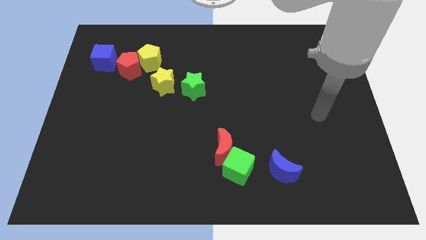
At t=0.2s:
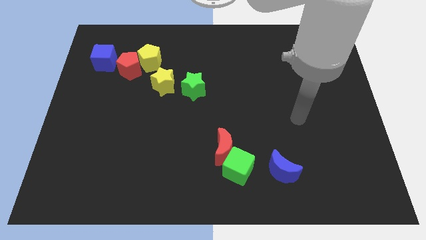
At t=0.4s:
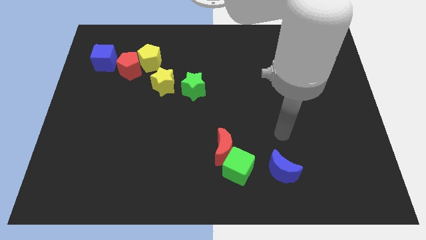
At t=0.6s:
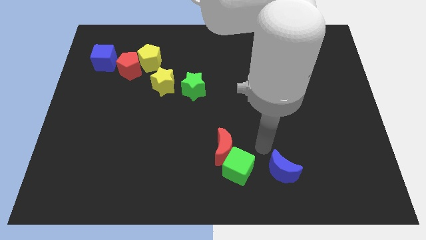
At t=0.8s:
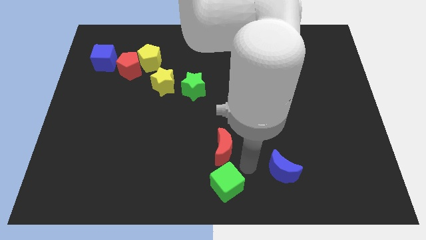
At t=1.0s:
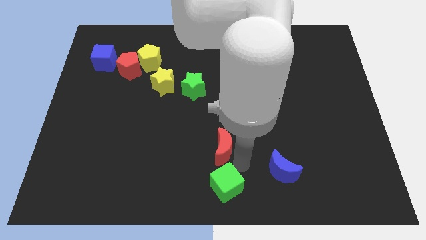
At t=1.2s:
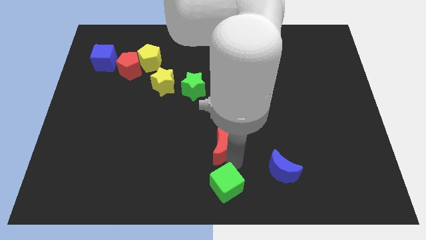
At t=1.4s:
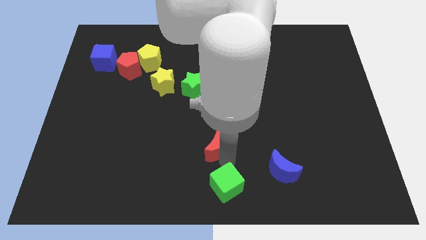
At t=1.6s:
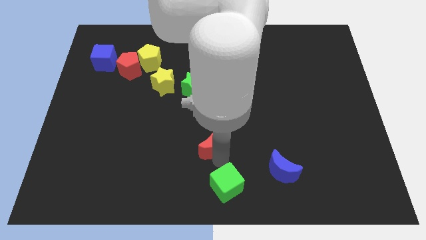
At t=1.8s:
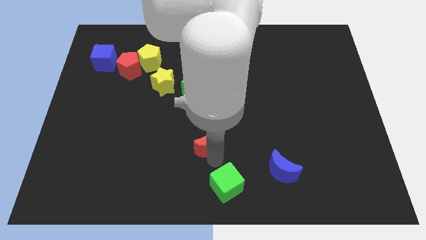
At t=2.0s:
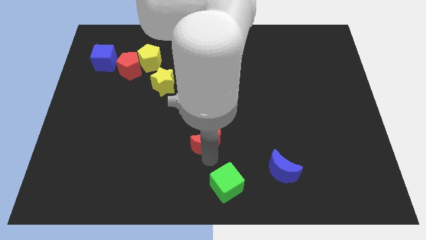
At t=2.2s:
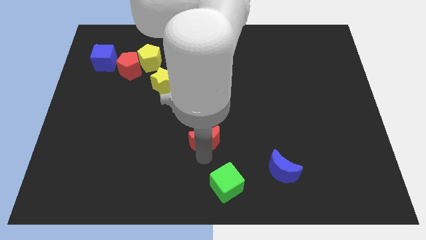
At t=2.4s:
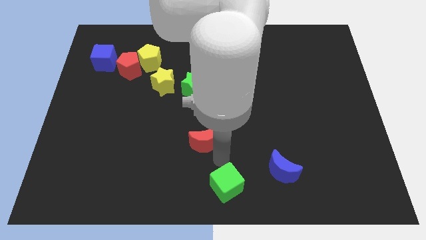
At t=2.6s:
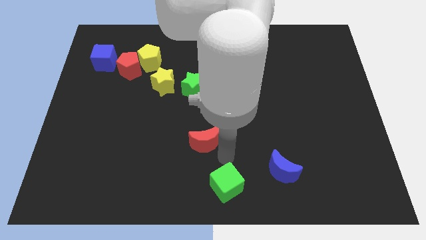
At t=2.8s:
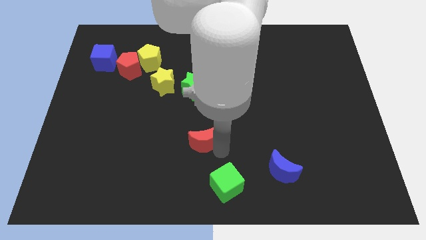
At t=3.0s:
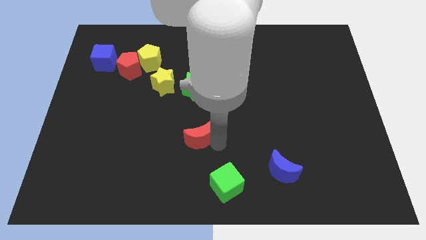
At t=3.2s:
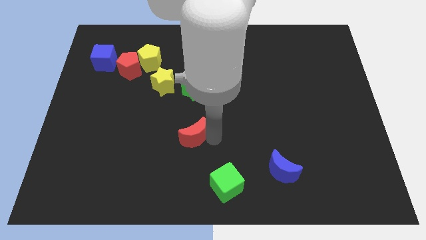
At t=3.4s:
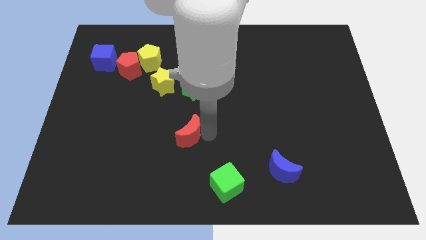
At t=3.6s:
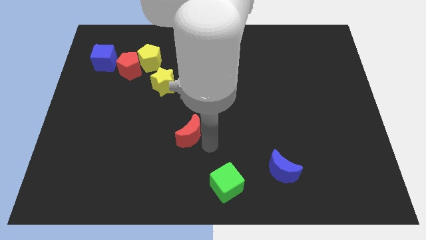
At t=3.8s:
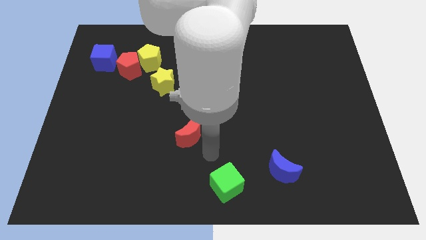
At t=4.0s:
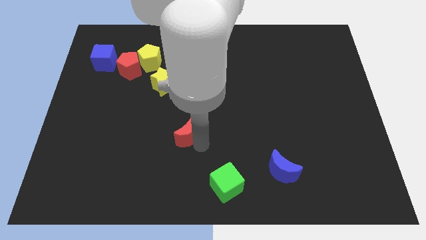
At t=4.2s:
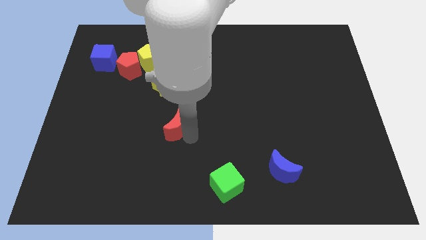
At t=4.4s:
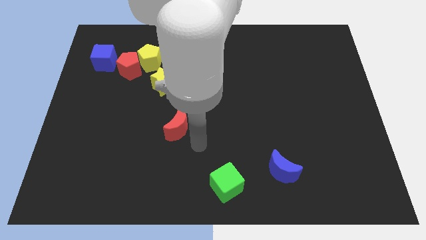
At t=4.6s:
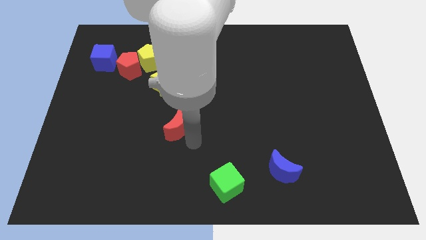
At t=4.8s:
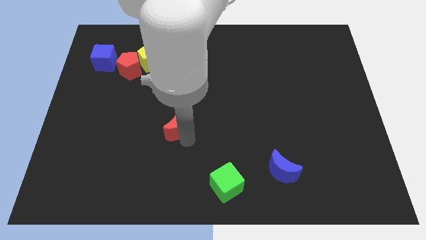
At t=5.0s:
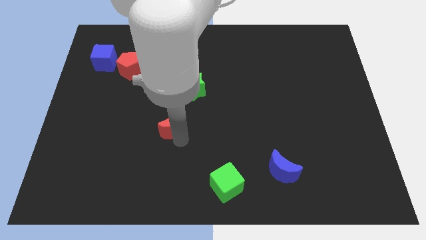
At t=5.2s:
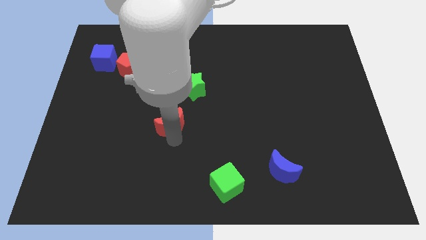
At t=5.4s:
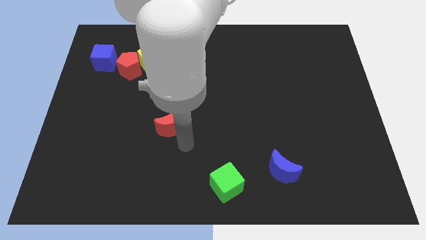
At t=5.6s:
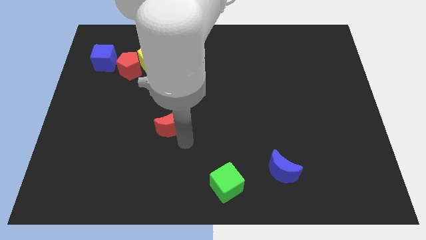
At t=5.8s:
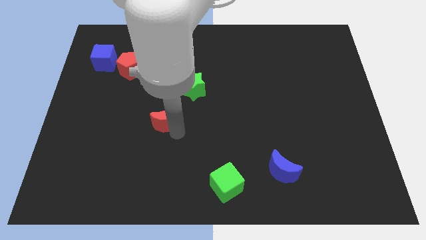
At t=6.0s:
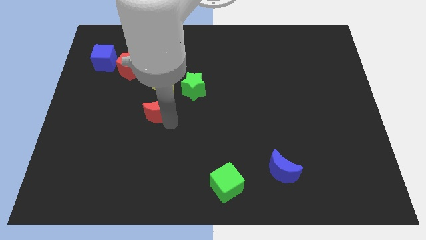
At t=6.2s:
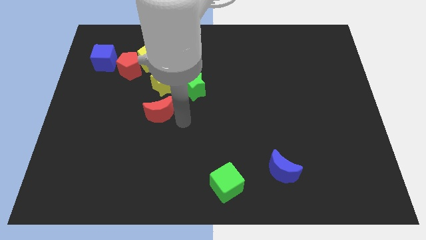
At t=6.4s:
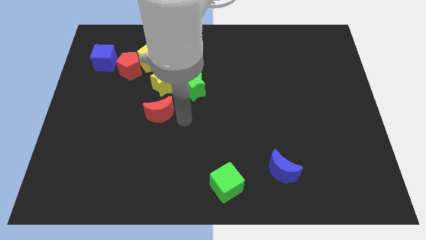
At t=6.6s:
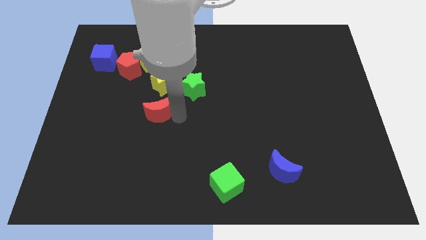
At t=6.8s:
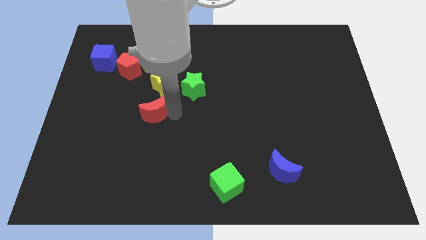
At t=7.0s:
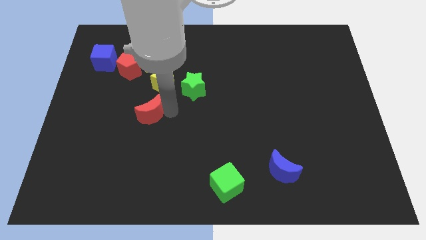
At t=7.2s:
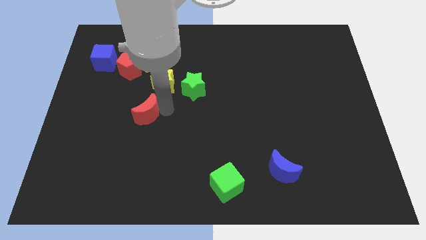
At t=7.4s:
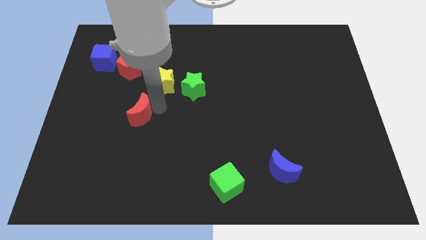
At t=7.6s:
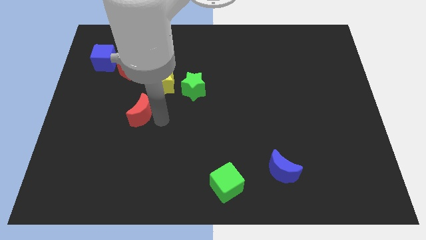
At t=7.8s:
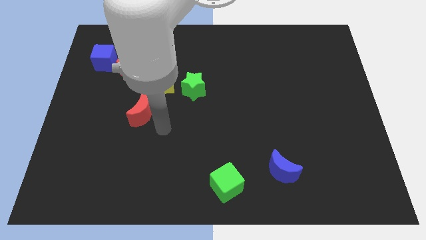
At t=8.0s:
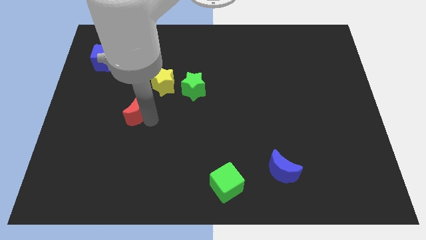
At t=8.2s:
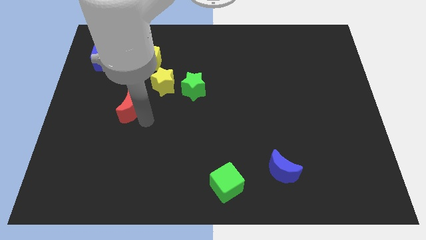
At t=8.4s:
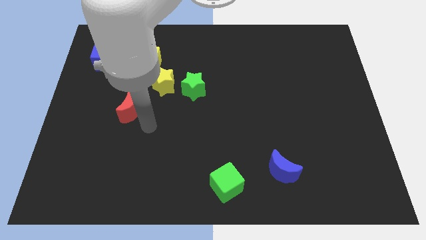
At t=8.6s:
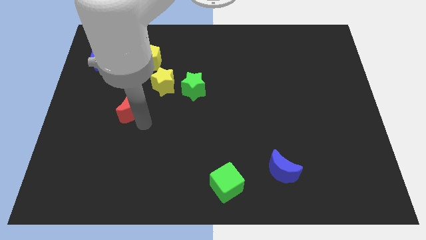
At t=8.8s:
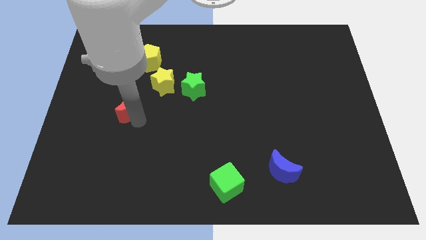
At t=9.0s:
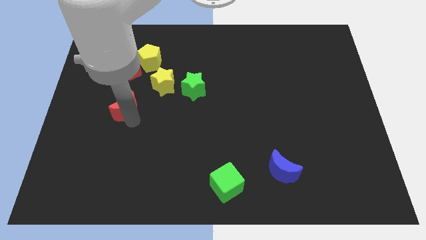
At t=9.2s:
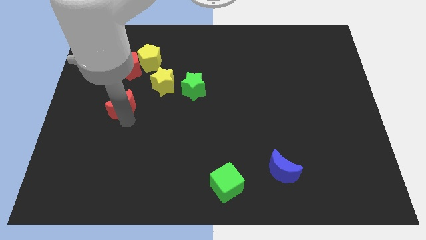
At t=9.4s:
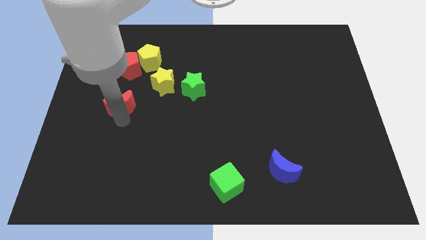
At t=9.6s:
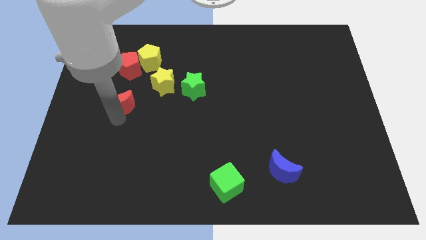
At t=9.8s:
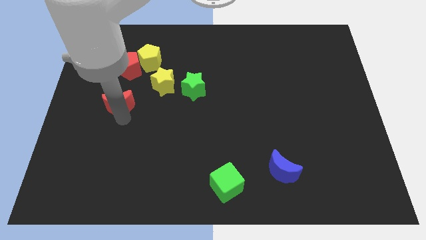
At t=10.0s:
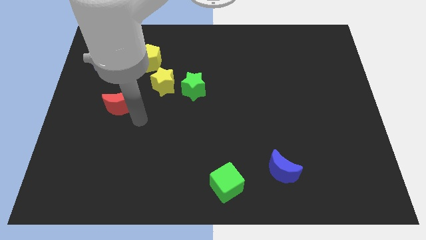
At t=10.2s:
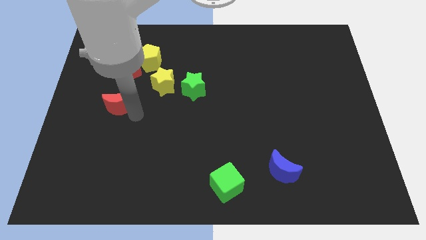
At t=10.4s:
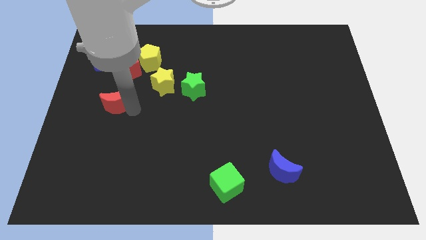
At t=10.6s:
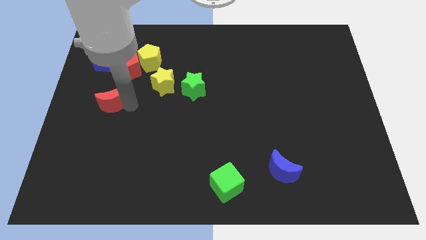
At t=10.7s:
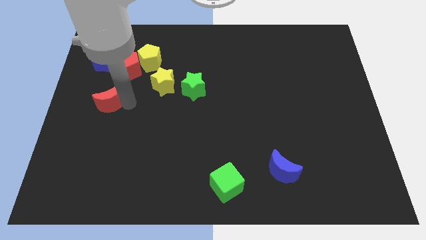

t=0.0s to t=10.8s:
put the red moon to the bottom side of the blue cube

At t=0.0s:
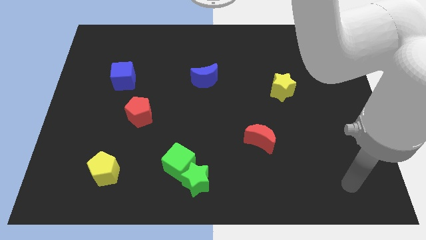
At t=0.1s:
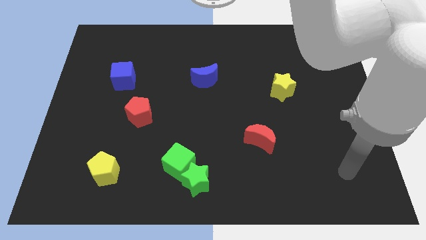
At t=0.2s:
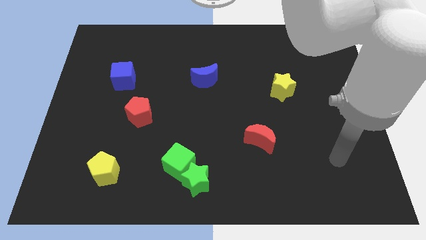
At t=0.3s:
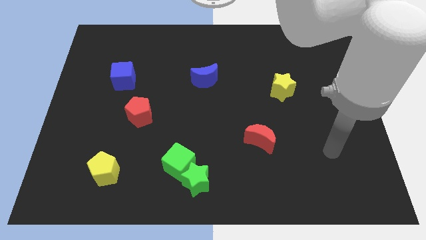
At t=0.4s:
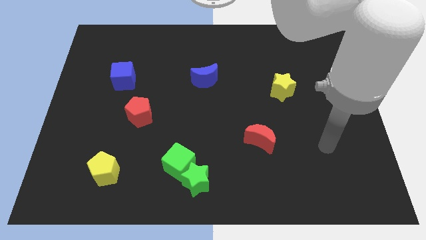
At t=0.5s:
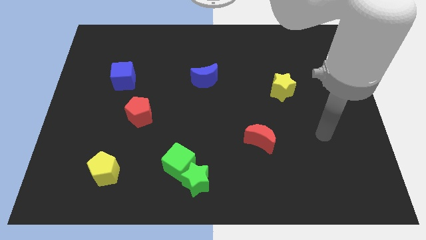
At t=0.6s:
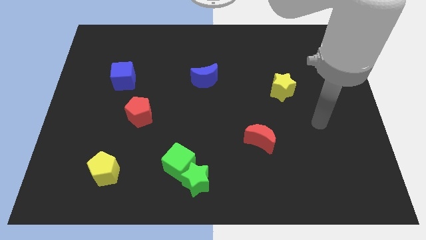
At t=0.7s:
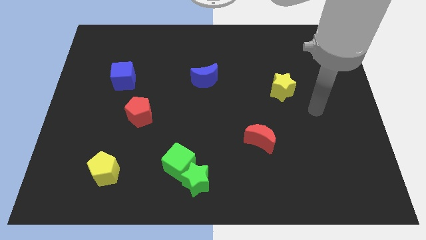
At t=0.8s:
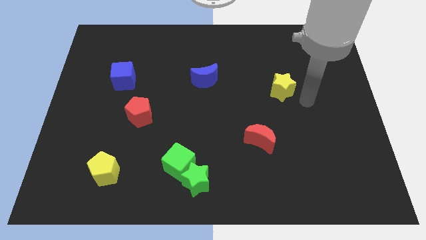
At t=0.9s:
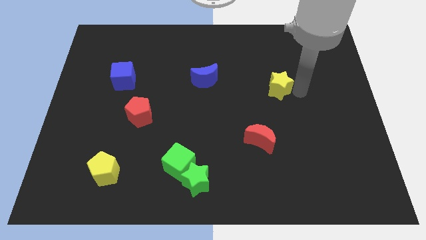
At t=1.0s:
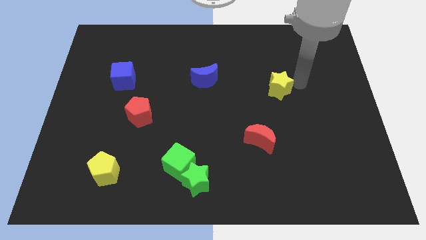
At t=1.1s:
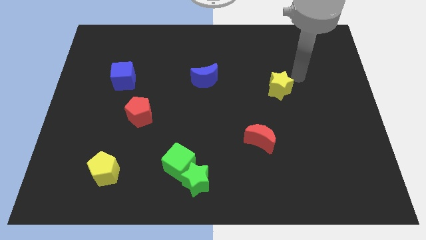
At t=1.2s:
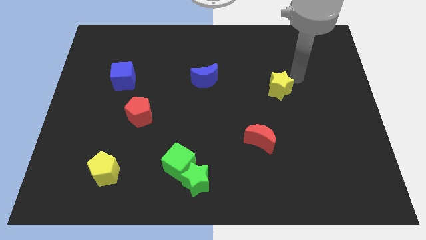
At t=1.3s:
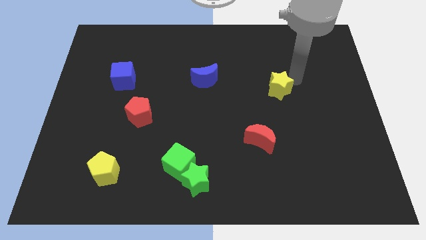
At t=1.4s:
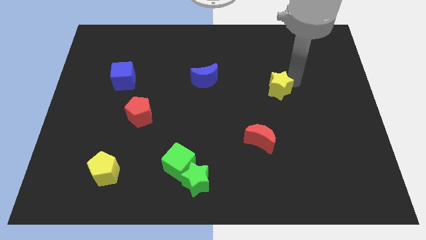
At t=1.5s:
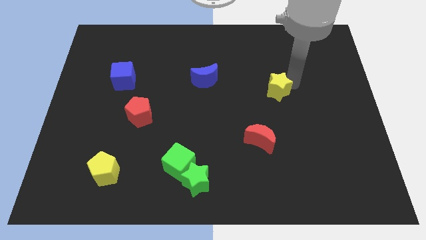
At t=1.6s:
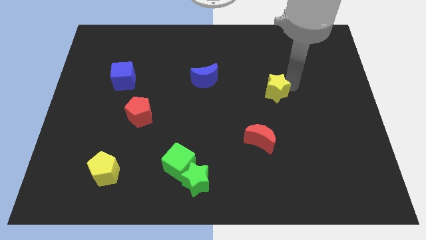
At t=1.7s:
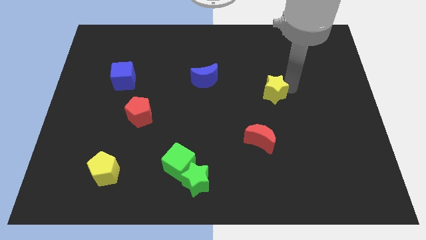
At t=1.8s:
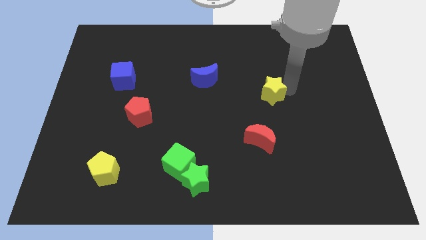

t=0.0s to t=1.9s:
put the yellow star to the top of the red moon
